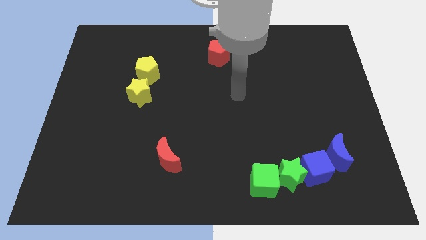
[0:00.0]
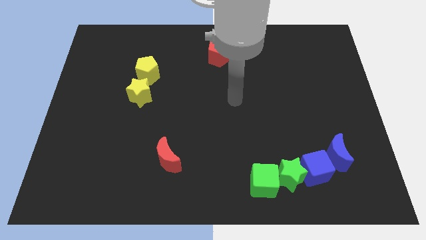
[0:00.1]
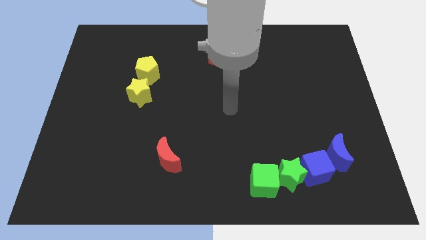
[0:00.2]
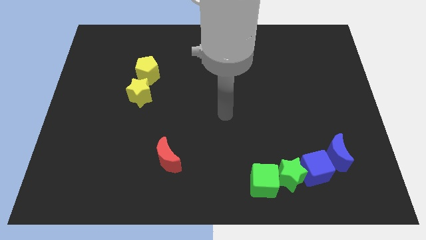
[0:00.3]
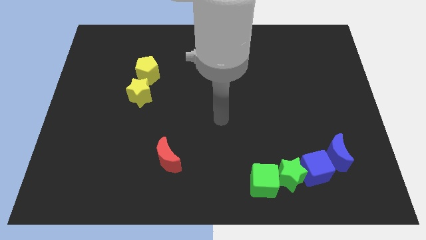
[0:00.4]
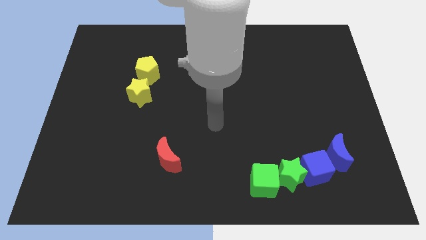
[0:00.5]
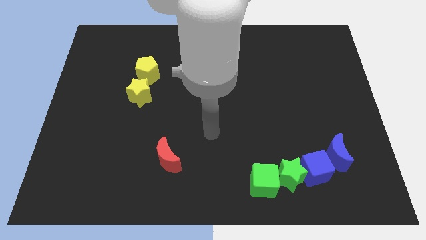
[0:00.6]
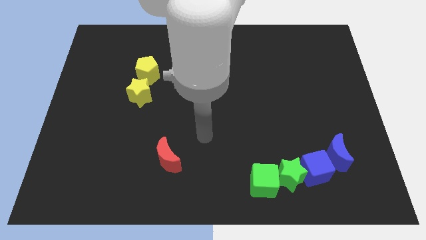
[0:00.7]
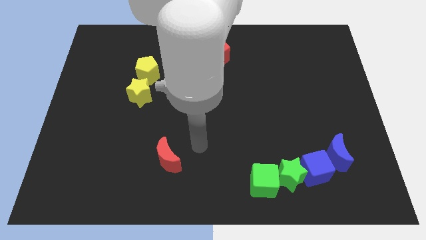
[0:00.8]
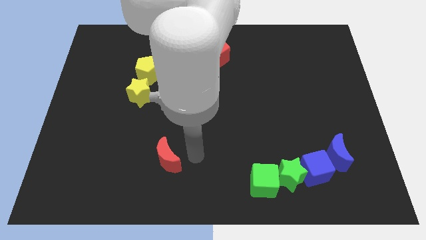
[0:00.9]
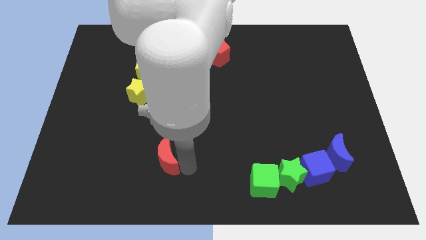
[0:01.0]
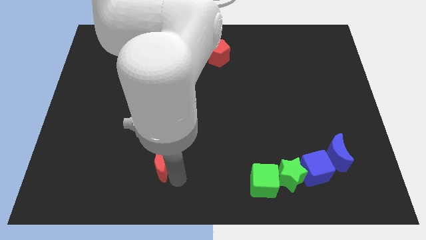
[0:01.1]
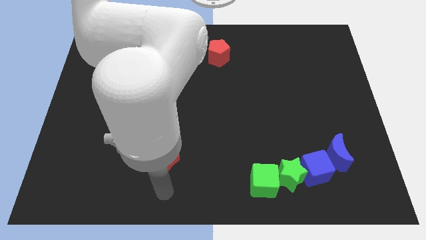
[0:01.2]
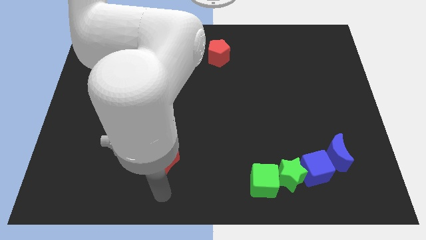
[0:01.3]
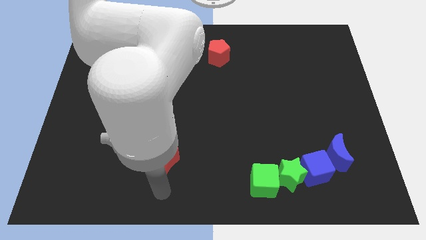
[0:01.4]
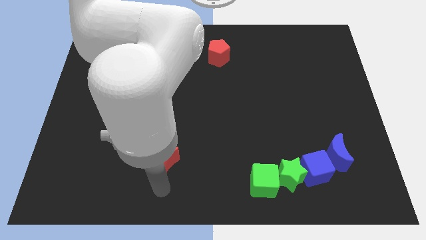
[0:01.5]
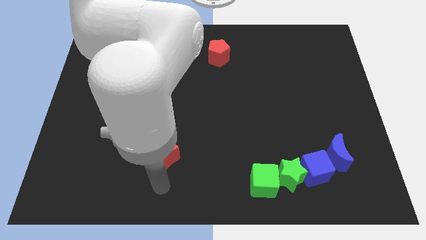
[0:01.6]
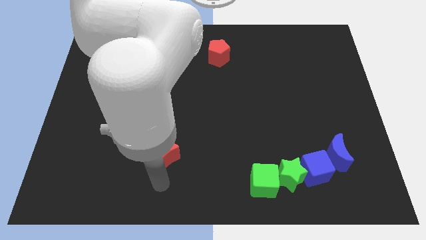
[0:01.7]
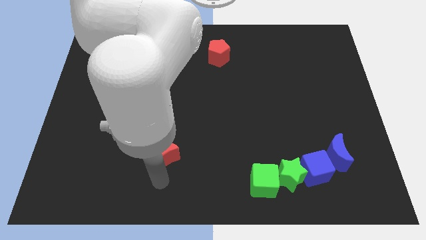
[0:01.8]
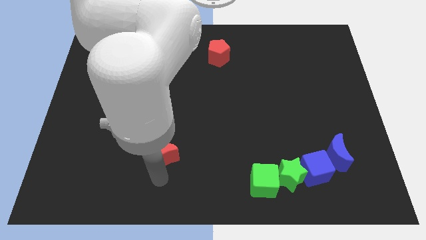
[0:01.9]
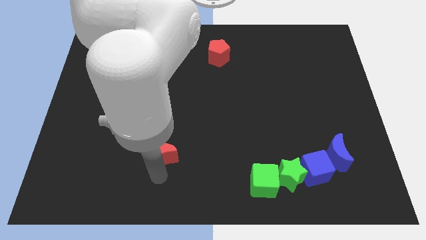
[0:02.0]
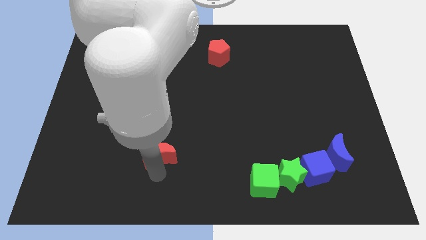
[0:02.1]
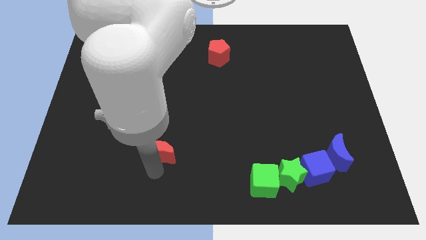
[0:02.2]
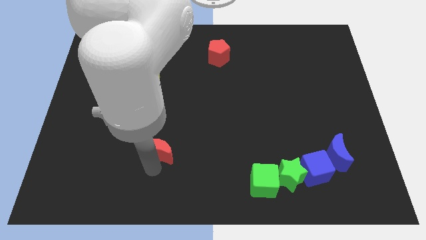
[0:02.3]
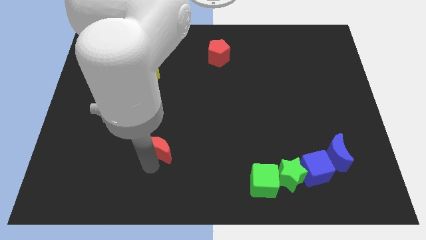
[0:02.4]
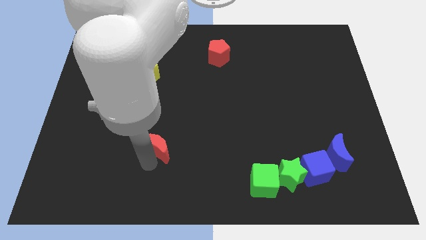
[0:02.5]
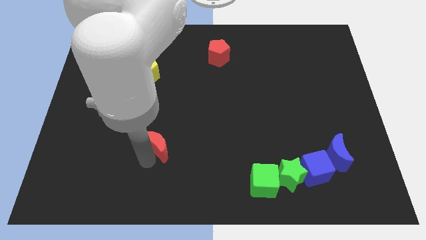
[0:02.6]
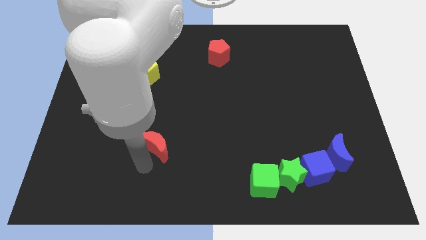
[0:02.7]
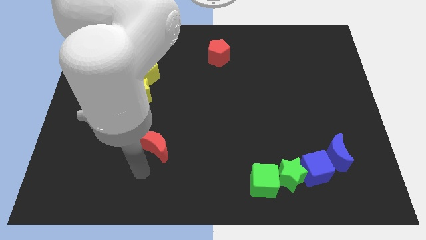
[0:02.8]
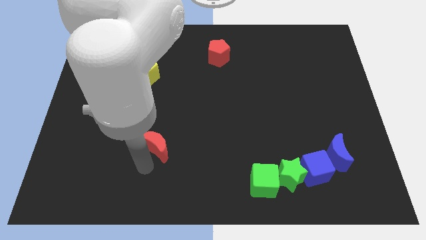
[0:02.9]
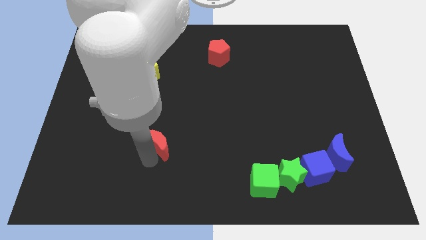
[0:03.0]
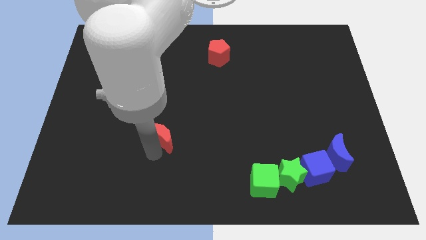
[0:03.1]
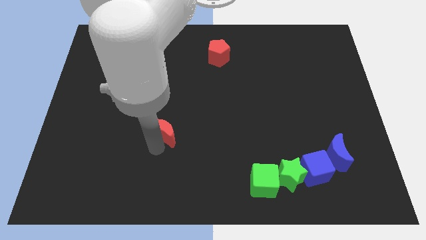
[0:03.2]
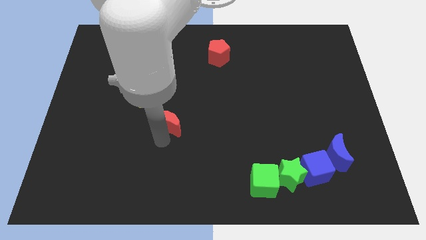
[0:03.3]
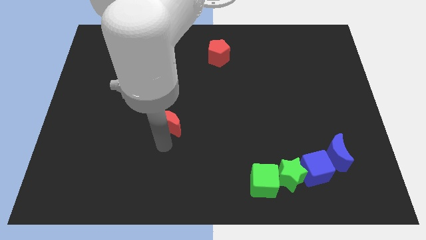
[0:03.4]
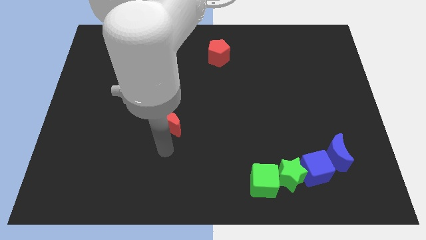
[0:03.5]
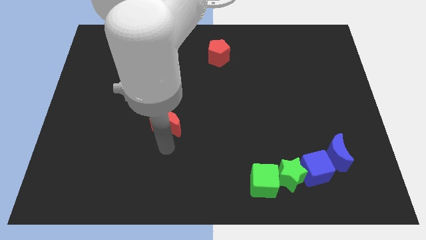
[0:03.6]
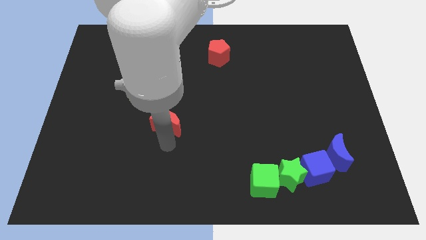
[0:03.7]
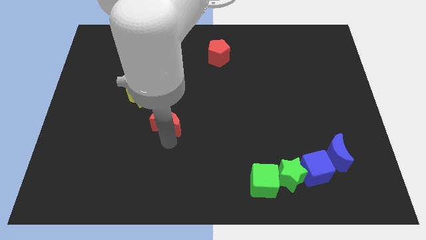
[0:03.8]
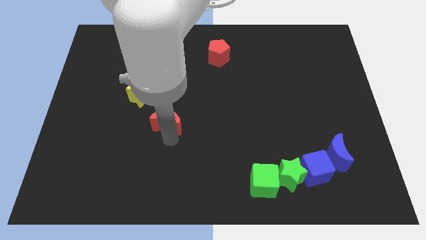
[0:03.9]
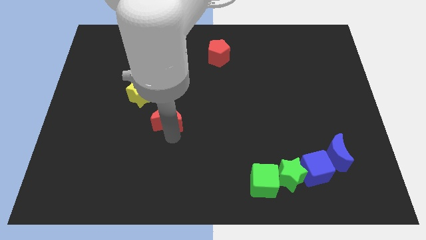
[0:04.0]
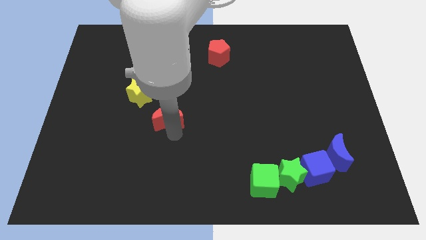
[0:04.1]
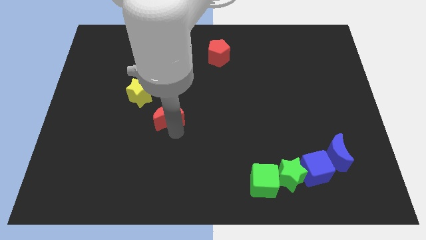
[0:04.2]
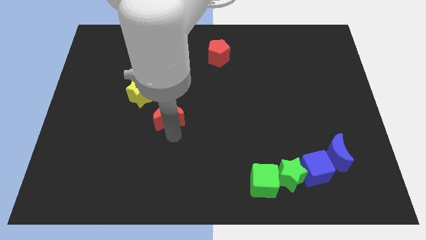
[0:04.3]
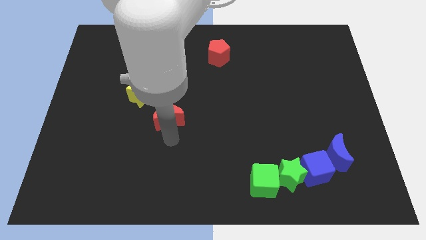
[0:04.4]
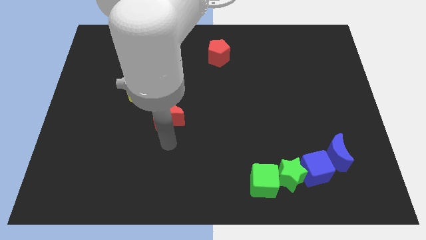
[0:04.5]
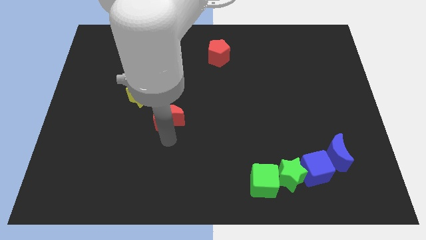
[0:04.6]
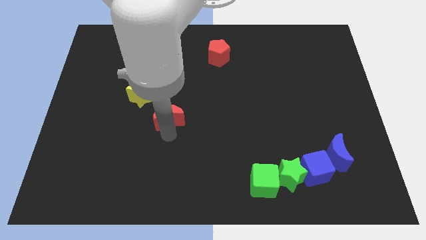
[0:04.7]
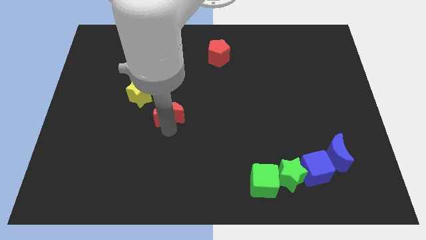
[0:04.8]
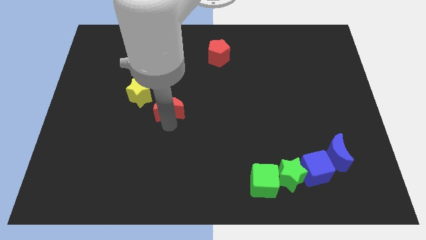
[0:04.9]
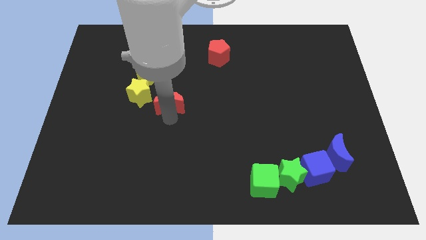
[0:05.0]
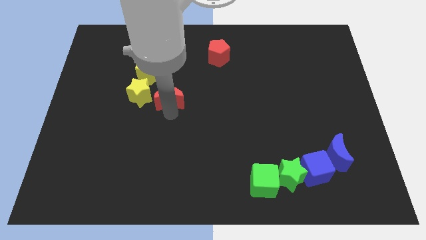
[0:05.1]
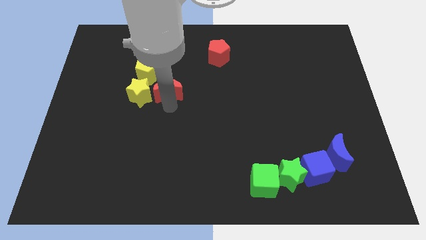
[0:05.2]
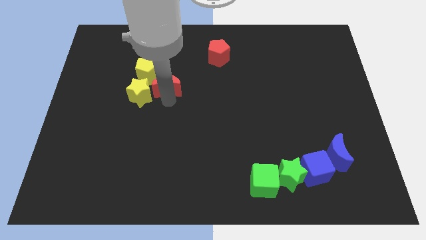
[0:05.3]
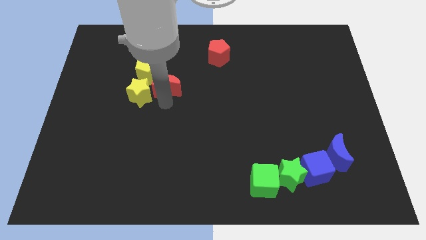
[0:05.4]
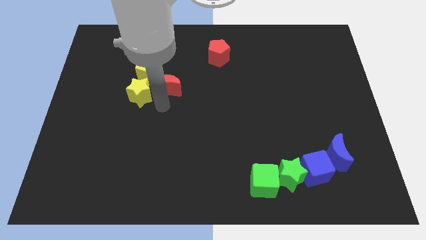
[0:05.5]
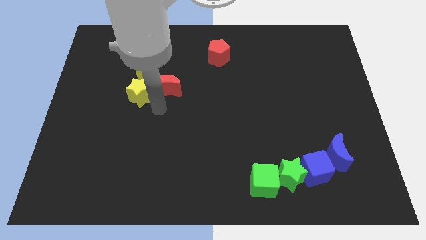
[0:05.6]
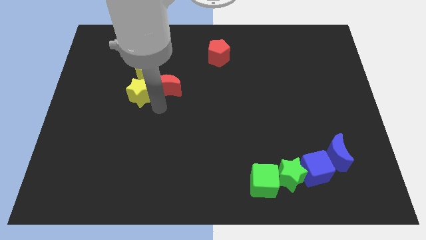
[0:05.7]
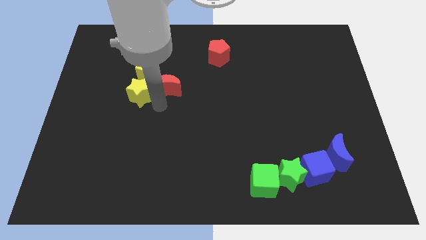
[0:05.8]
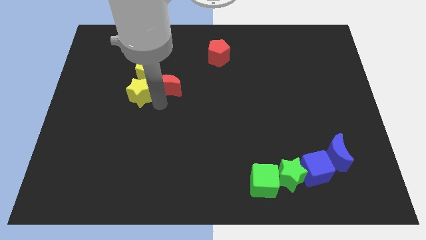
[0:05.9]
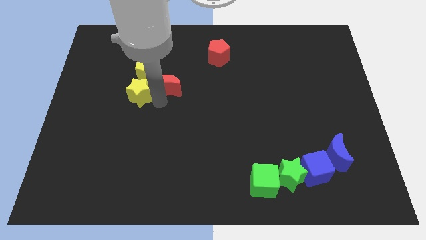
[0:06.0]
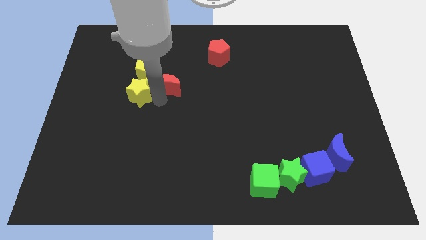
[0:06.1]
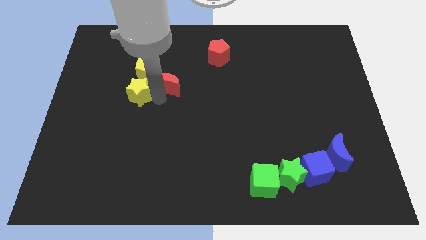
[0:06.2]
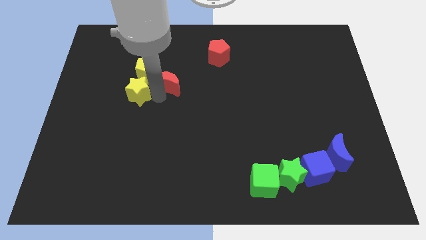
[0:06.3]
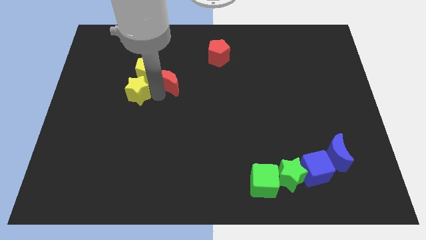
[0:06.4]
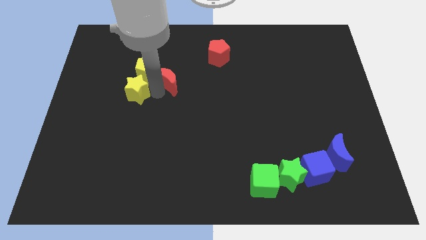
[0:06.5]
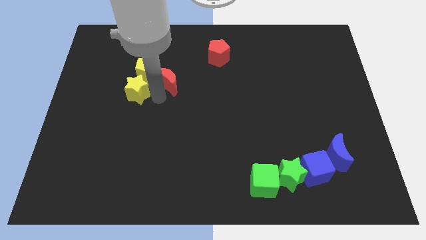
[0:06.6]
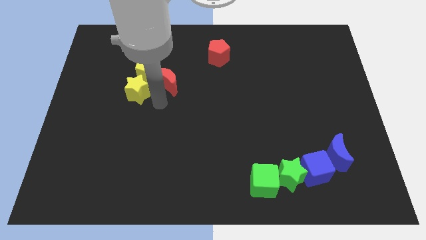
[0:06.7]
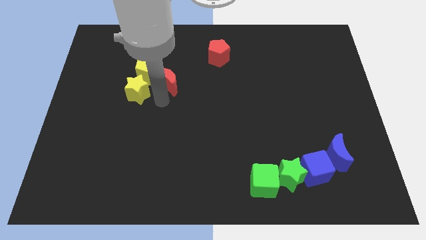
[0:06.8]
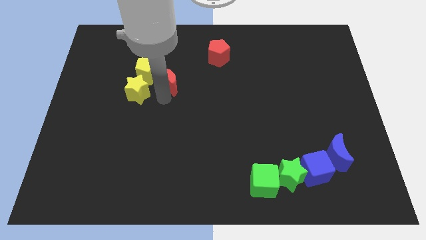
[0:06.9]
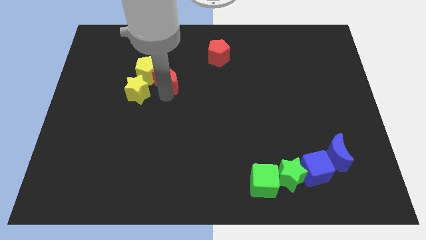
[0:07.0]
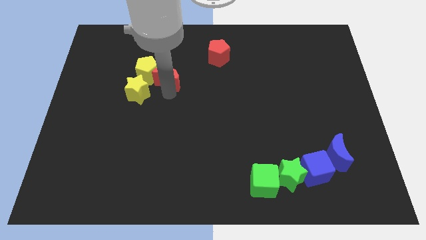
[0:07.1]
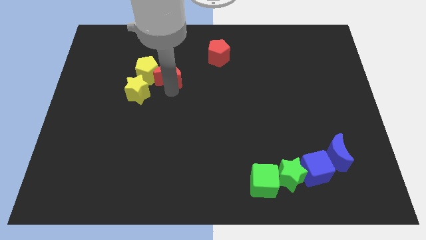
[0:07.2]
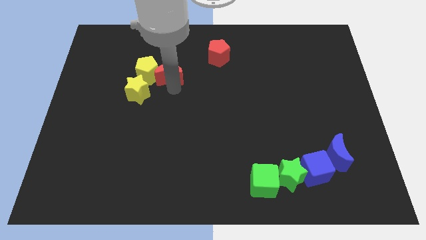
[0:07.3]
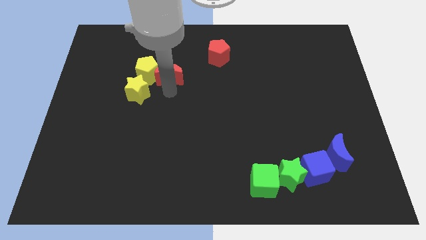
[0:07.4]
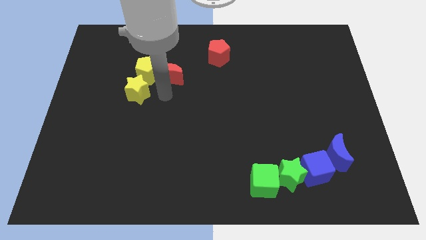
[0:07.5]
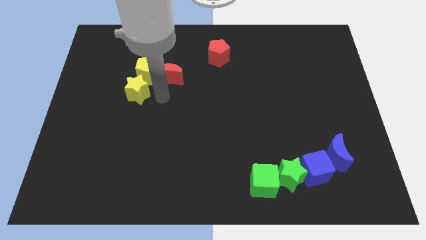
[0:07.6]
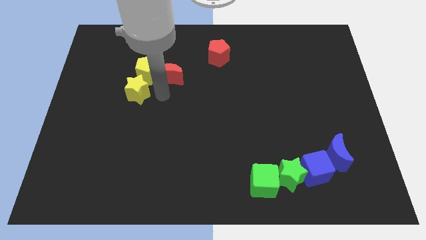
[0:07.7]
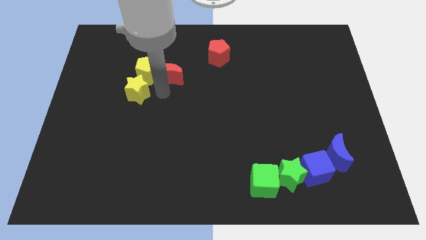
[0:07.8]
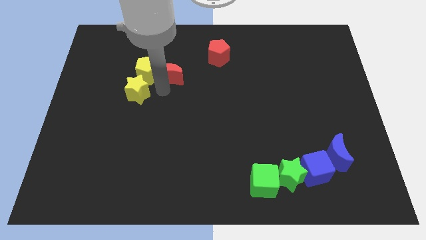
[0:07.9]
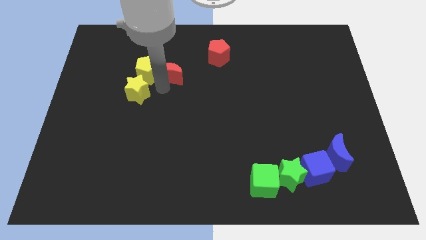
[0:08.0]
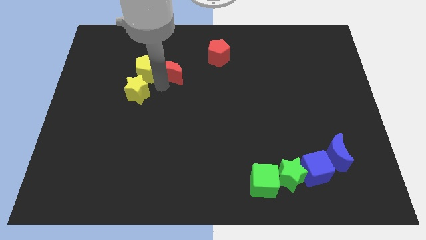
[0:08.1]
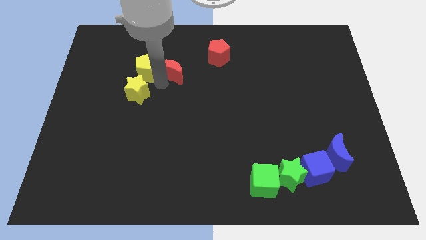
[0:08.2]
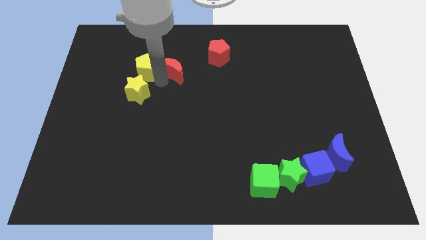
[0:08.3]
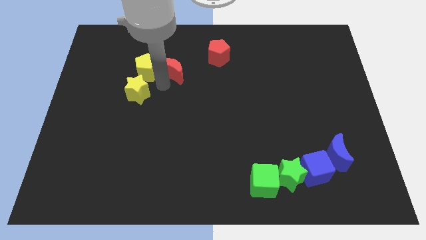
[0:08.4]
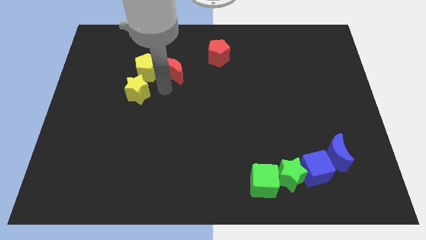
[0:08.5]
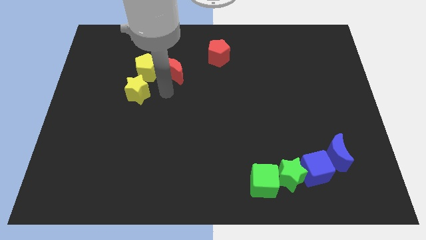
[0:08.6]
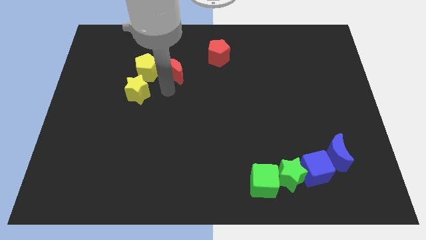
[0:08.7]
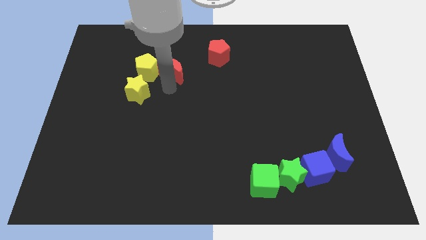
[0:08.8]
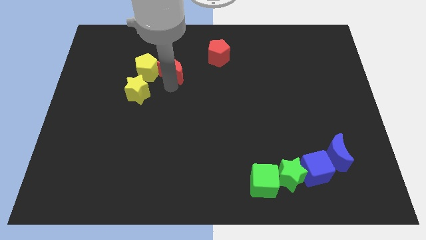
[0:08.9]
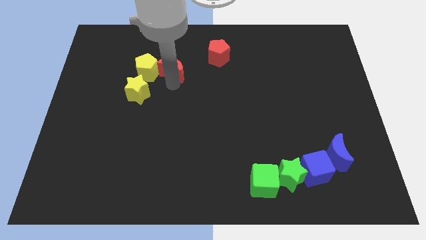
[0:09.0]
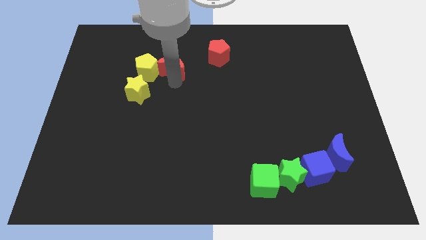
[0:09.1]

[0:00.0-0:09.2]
slide the red moon just left of the red pentagon
